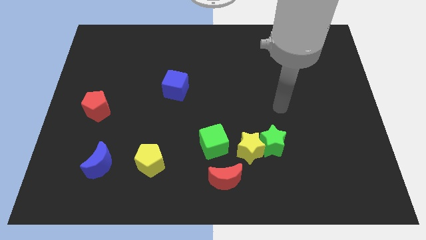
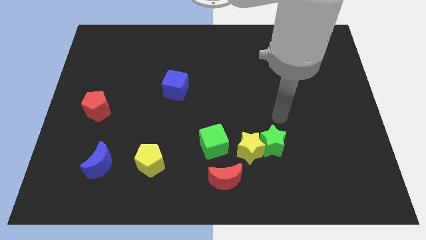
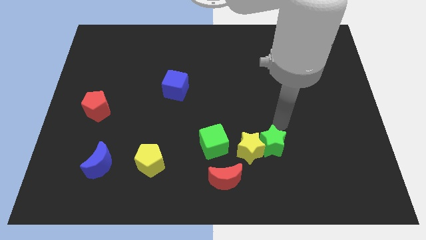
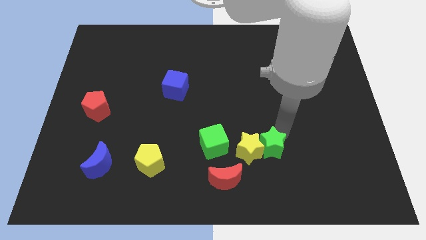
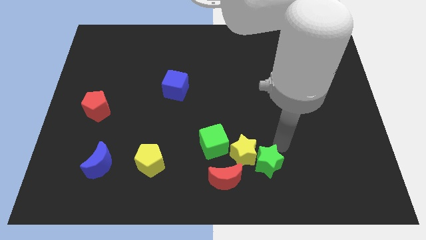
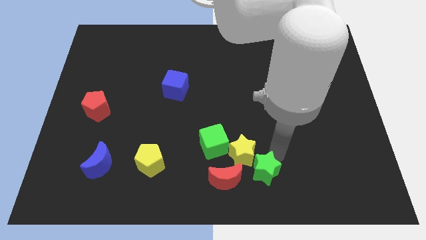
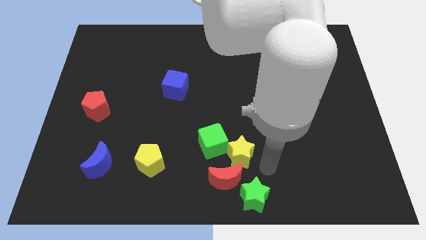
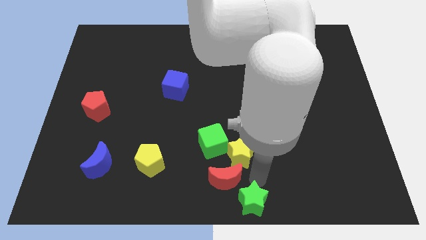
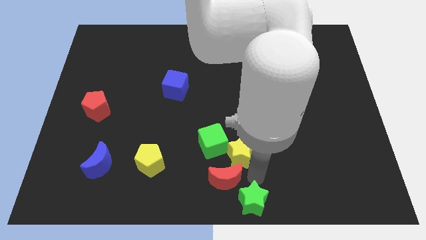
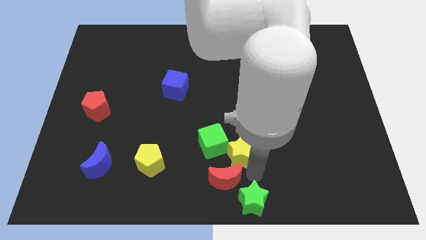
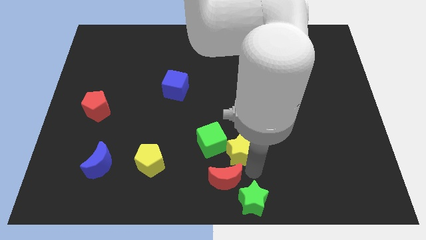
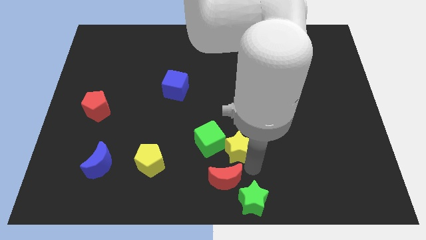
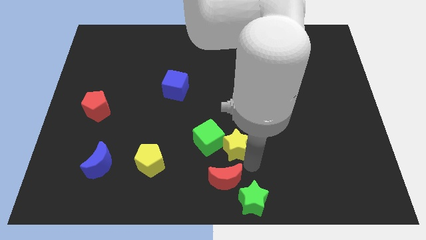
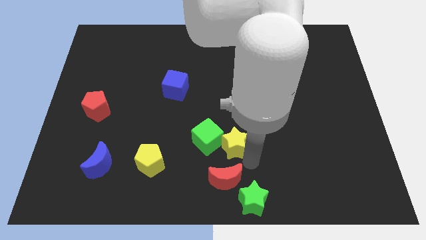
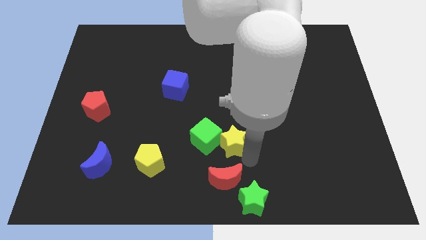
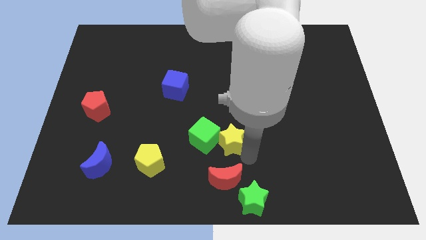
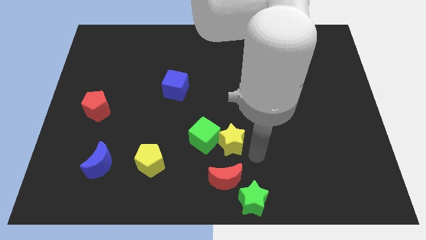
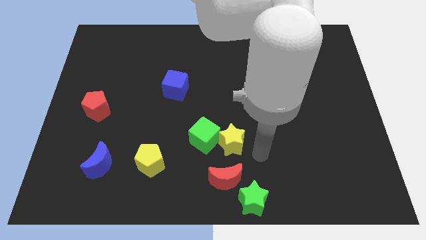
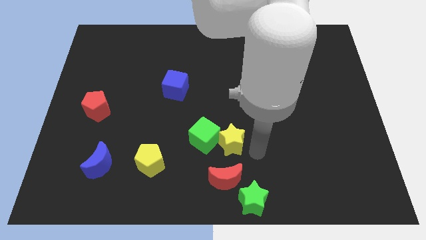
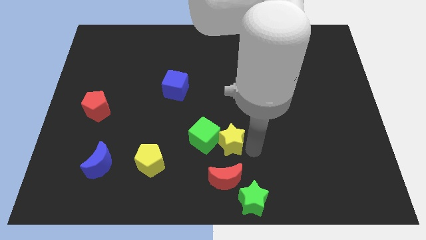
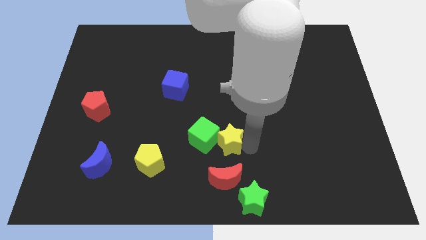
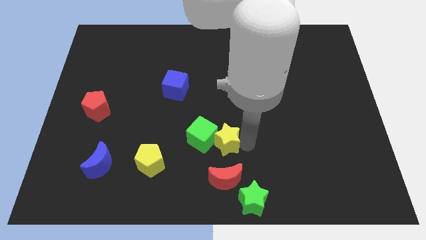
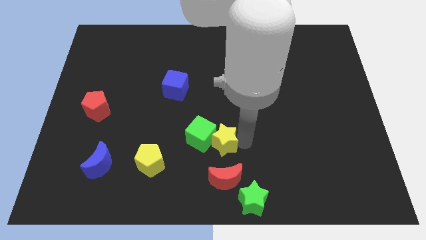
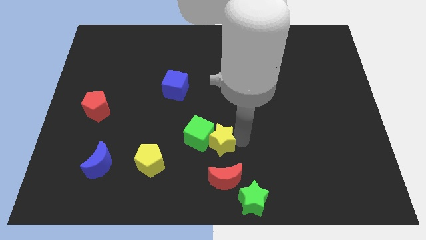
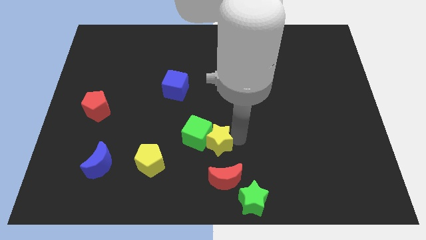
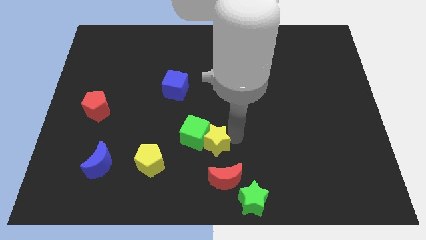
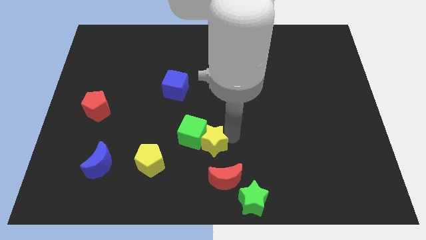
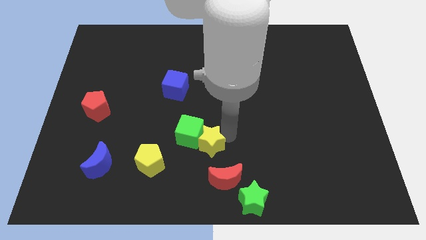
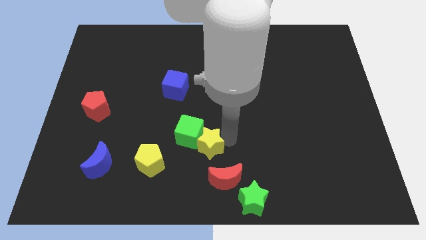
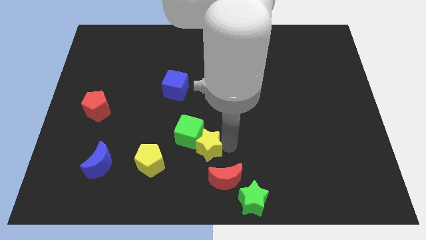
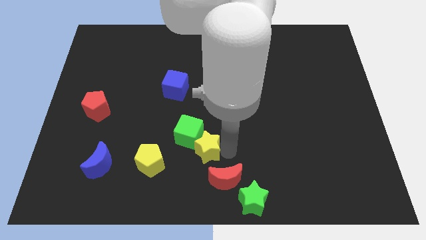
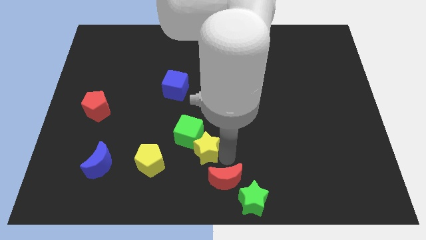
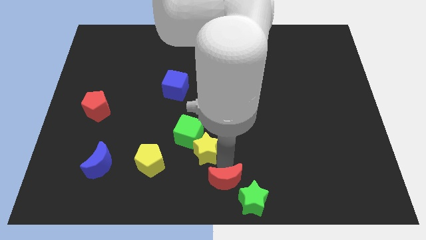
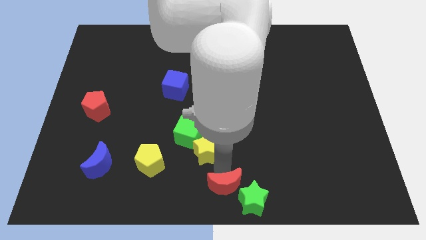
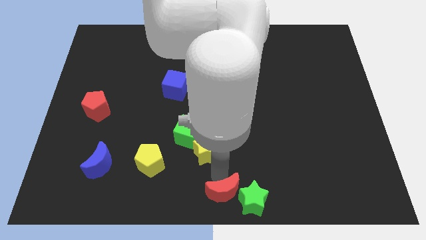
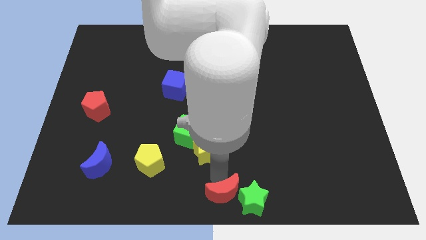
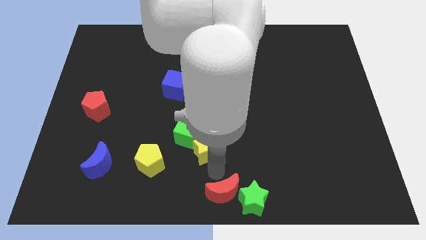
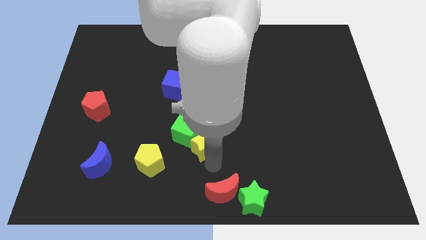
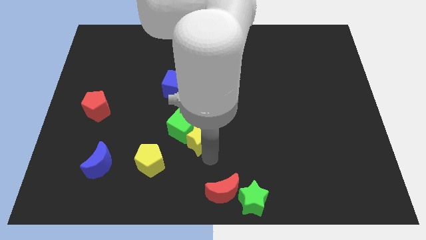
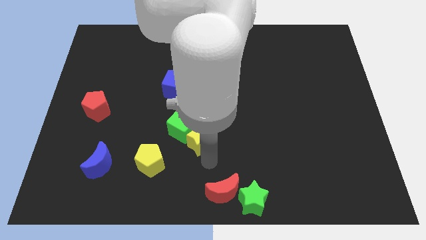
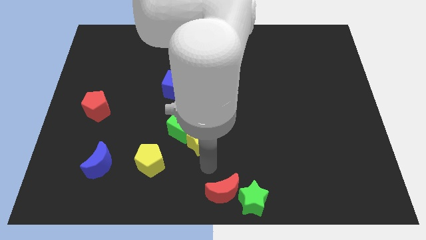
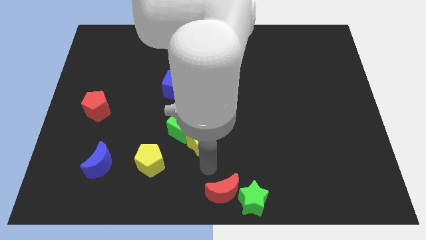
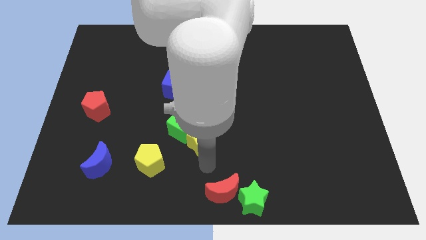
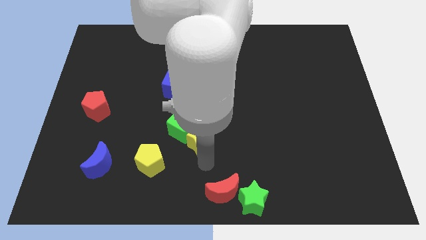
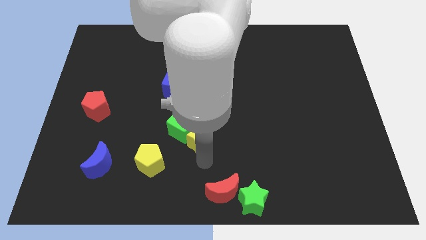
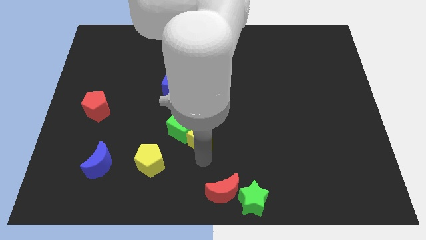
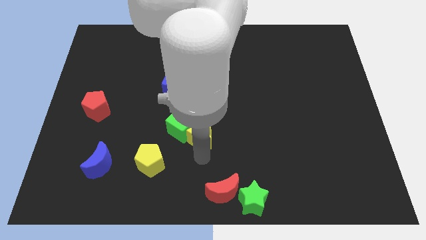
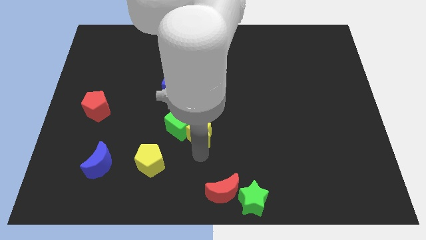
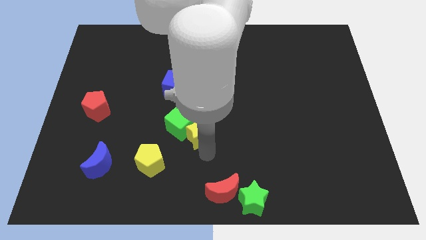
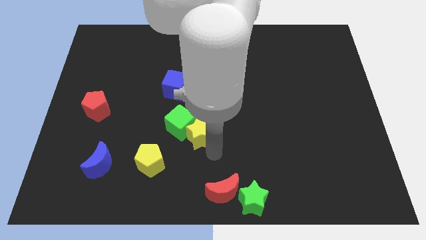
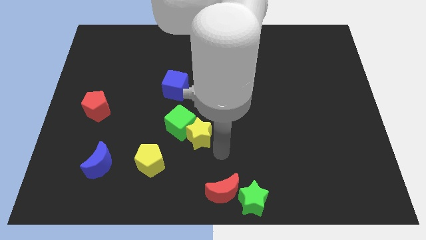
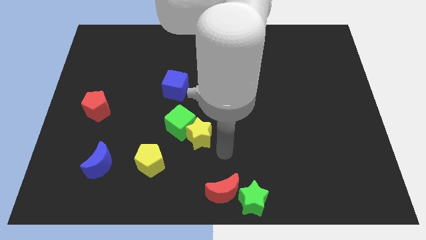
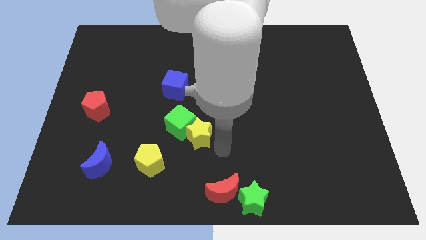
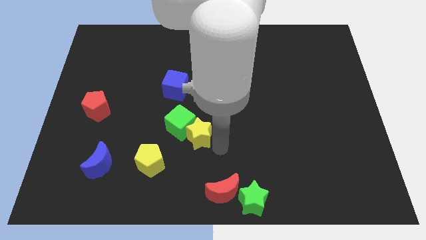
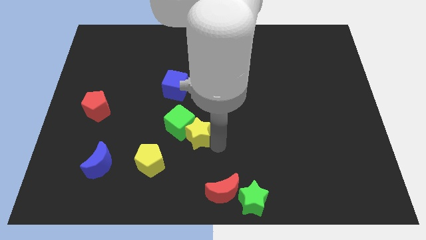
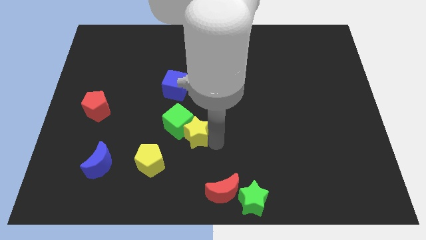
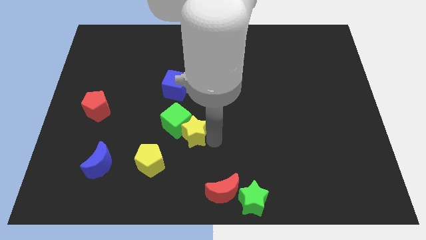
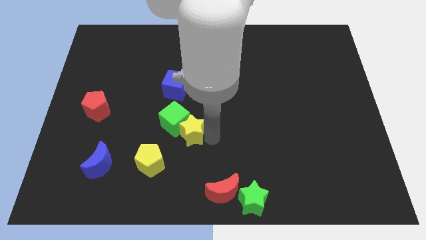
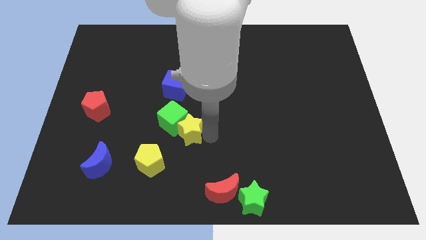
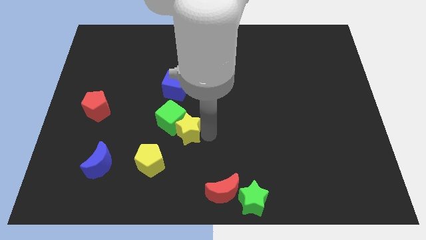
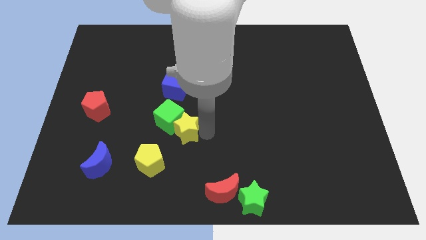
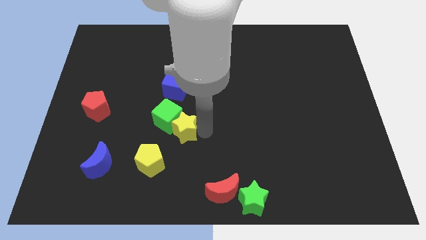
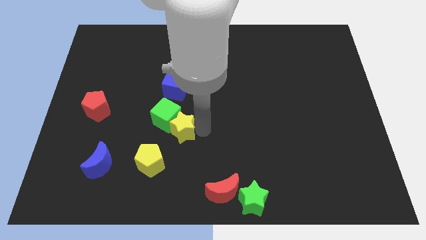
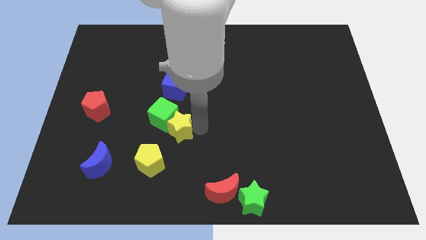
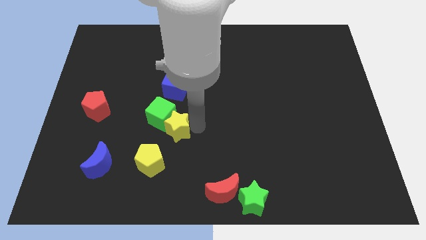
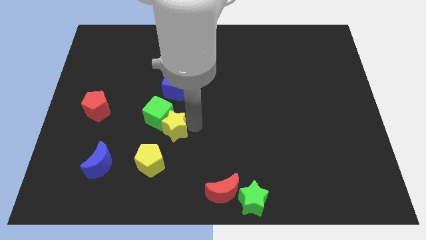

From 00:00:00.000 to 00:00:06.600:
put the yellow star to the top of the yellow pentagon

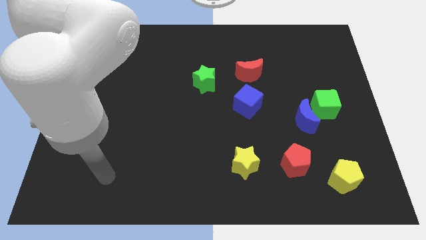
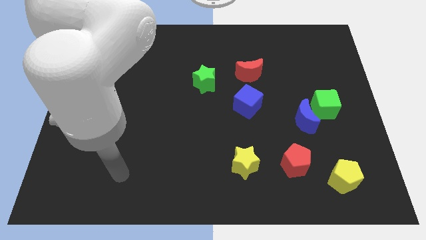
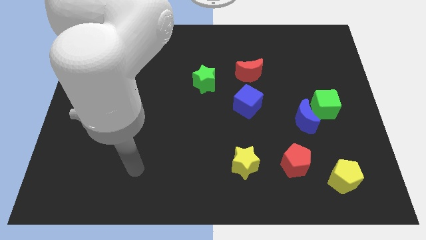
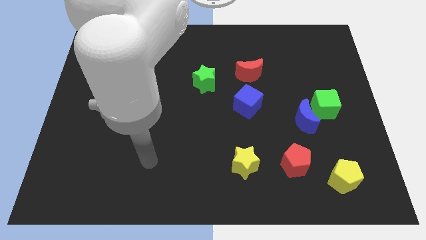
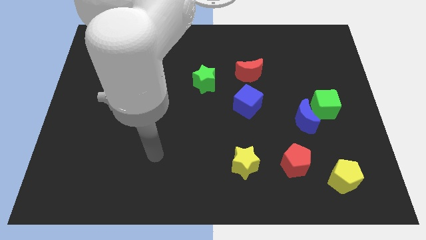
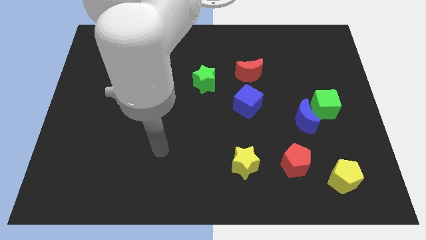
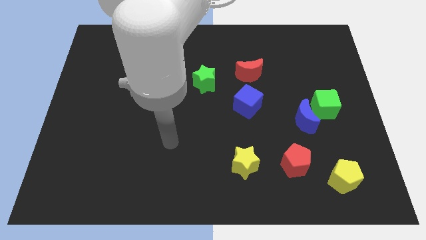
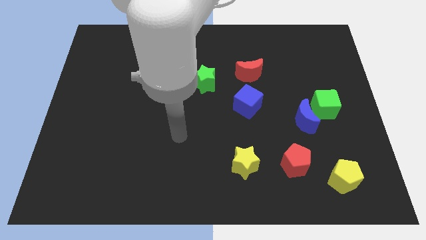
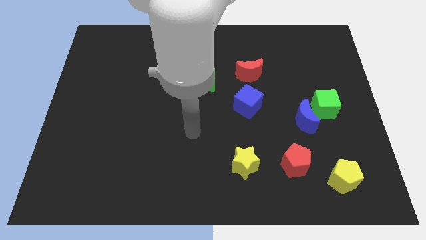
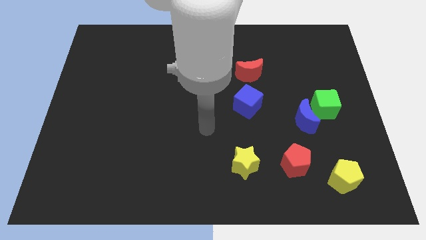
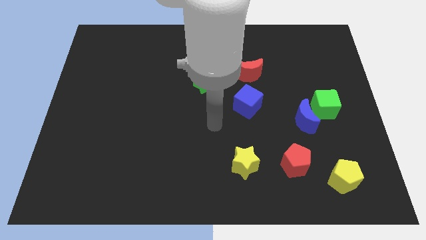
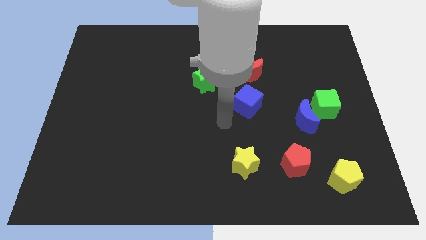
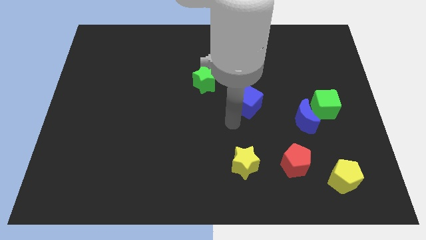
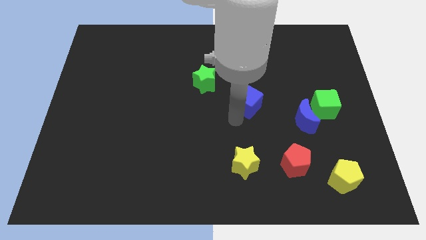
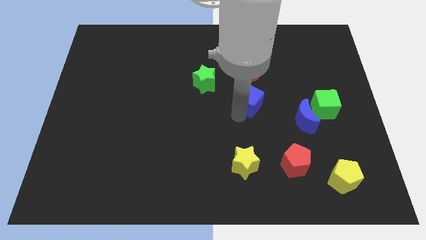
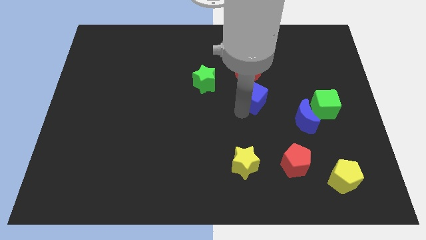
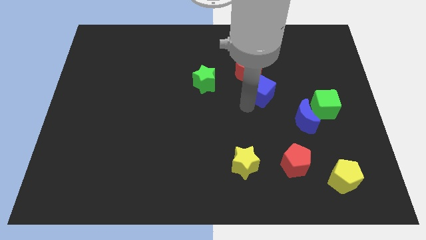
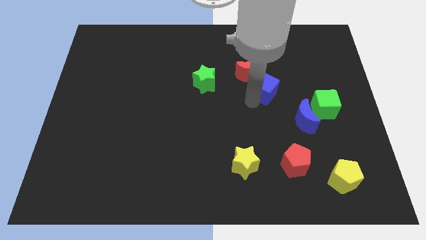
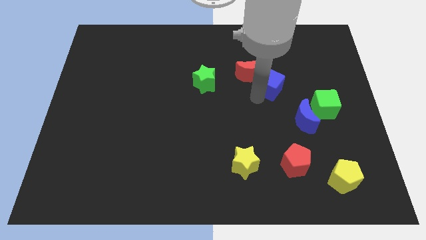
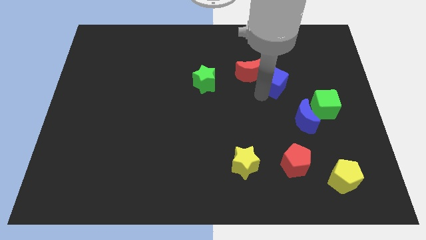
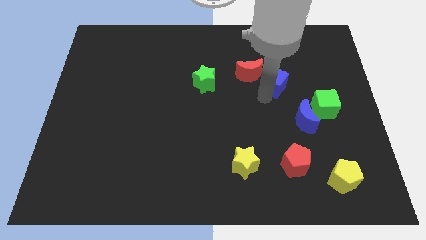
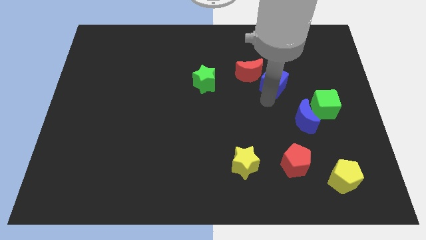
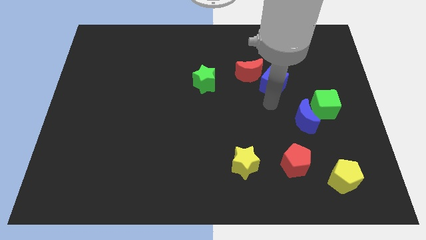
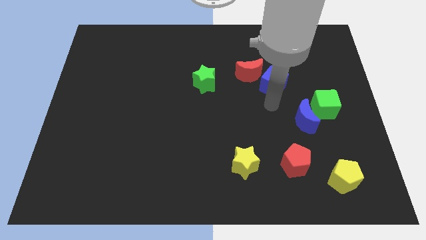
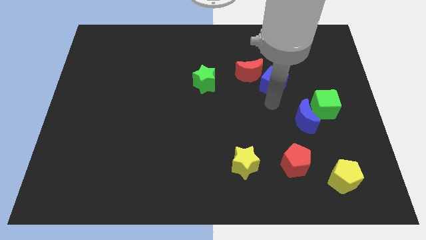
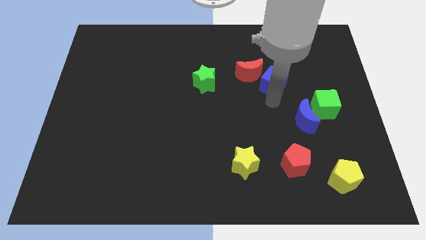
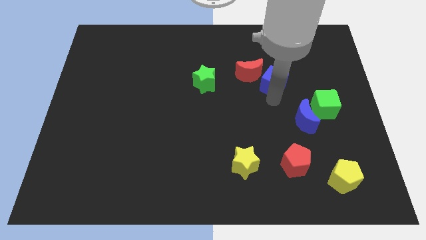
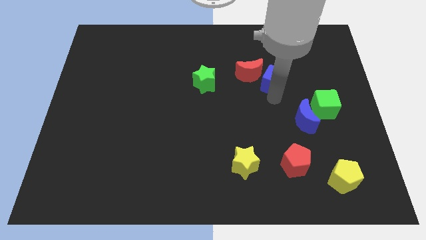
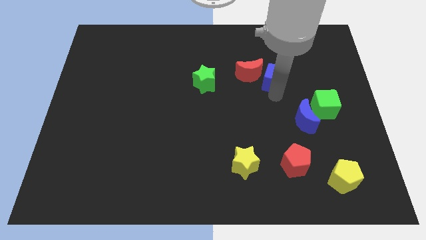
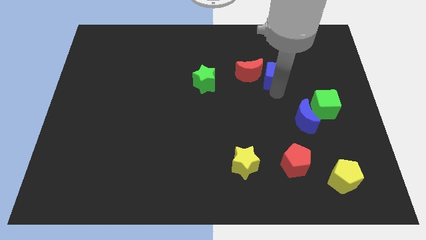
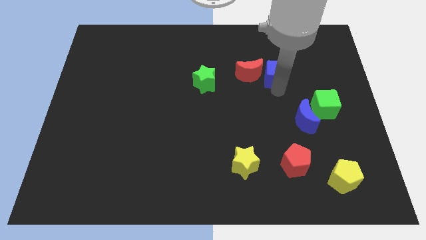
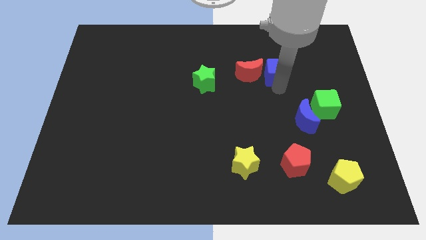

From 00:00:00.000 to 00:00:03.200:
move the blue cube diagonally up and to the right of the red moon
